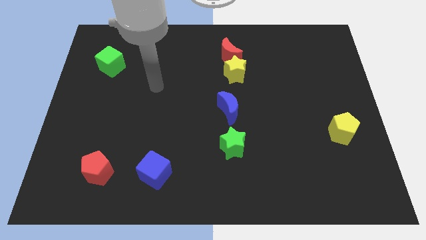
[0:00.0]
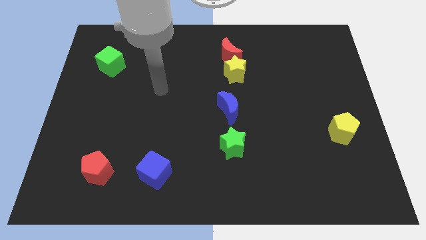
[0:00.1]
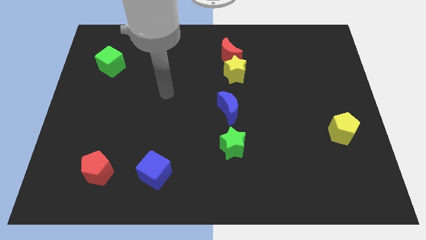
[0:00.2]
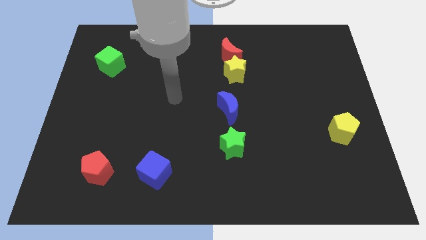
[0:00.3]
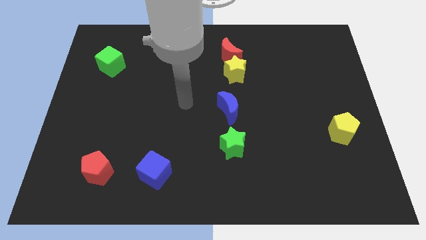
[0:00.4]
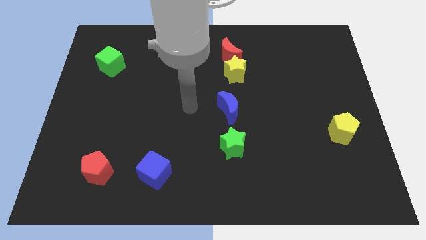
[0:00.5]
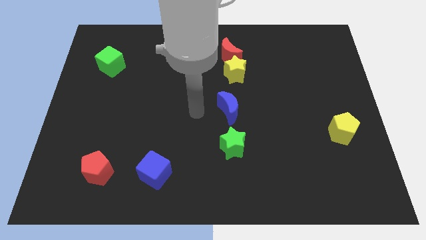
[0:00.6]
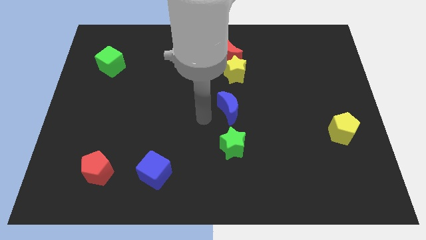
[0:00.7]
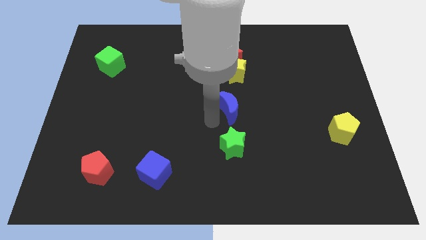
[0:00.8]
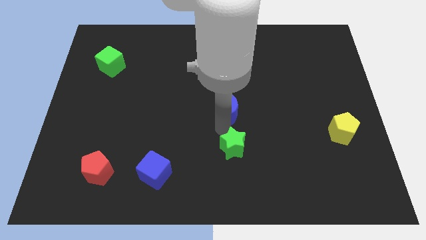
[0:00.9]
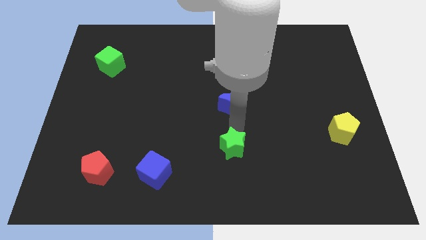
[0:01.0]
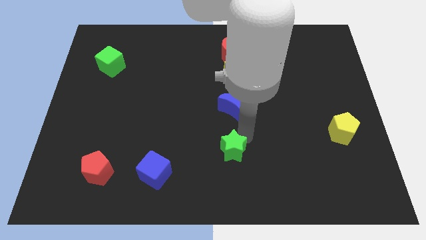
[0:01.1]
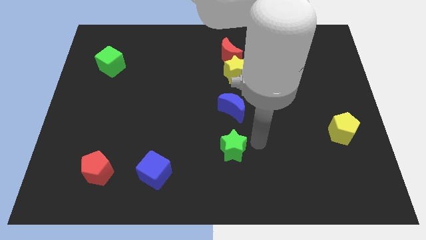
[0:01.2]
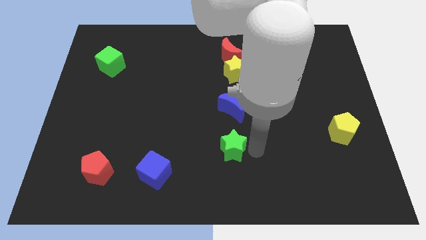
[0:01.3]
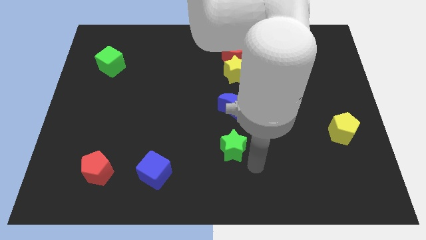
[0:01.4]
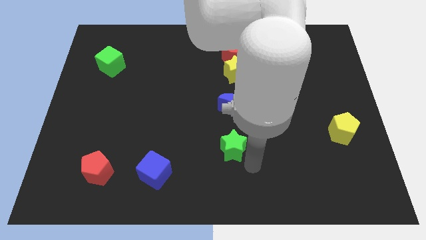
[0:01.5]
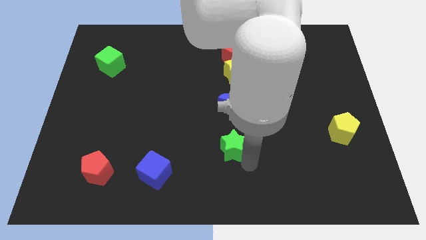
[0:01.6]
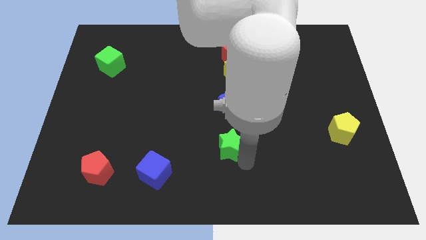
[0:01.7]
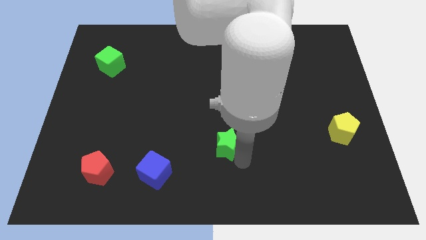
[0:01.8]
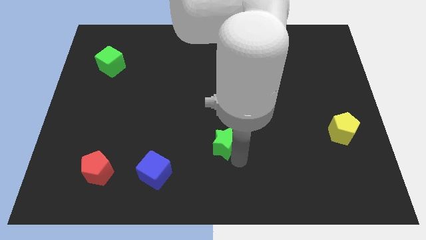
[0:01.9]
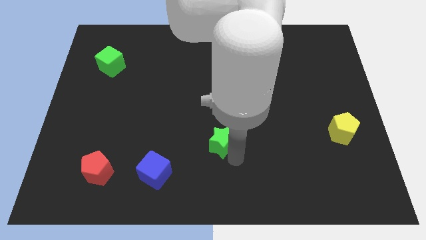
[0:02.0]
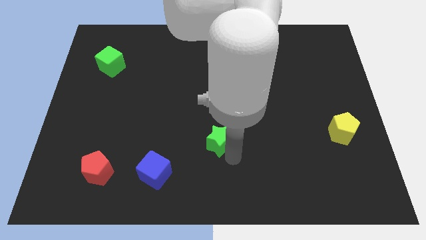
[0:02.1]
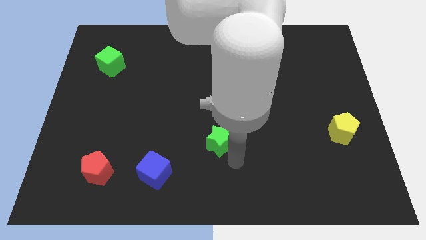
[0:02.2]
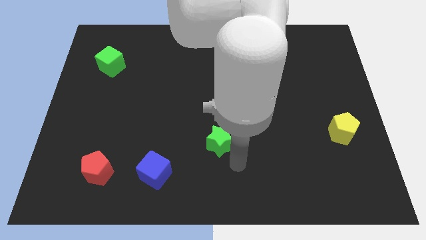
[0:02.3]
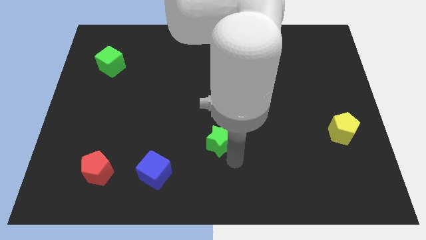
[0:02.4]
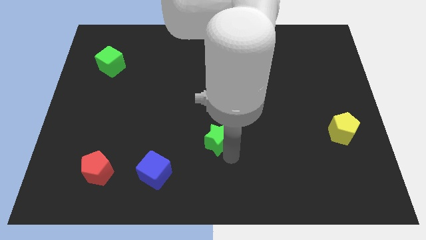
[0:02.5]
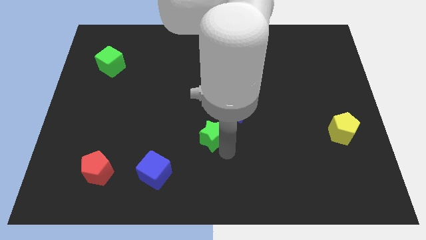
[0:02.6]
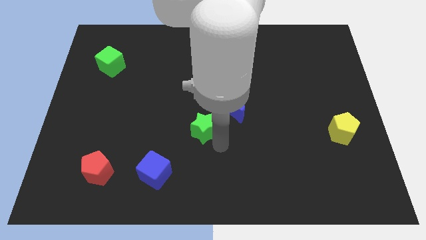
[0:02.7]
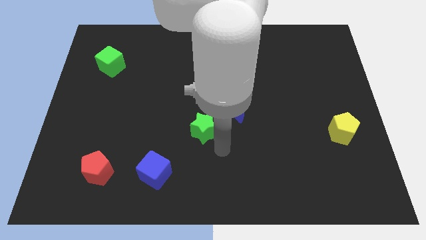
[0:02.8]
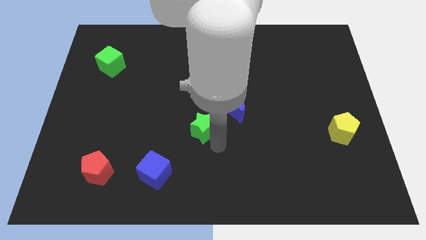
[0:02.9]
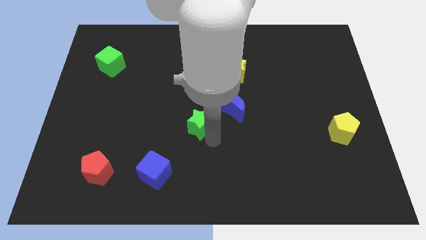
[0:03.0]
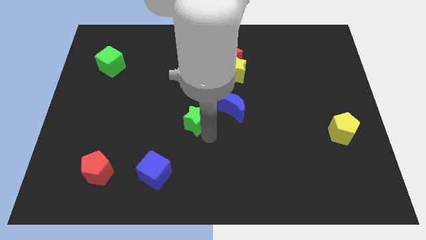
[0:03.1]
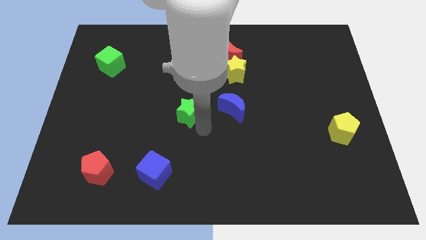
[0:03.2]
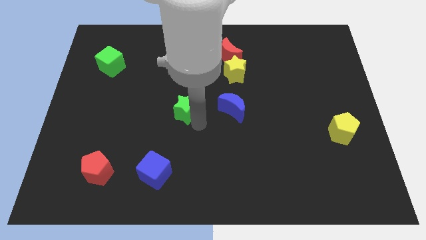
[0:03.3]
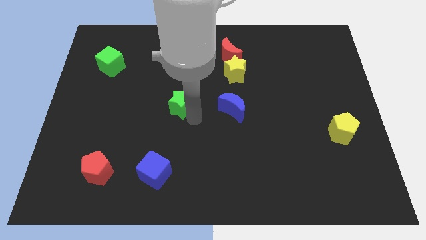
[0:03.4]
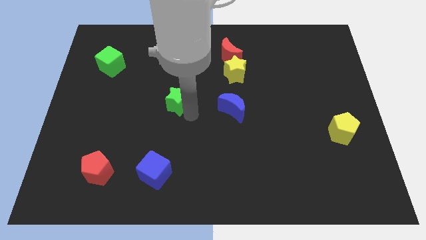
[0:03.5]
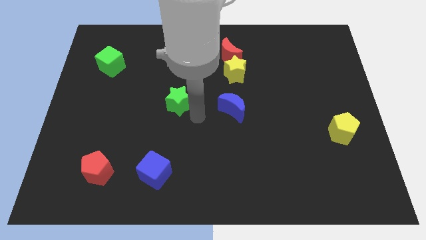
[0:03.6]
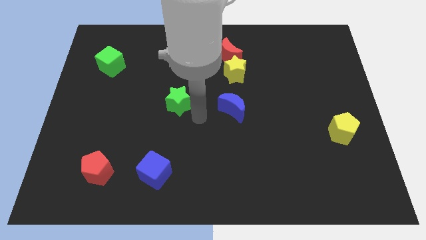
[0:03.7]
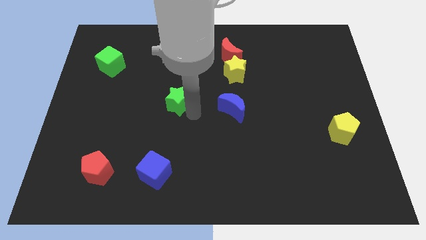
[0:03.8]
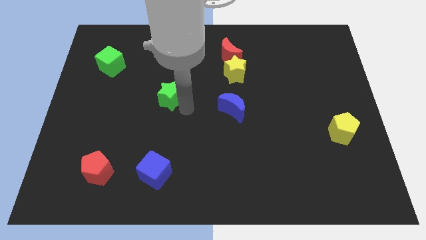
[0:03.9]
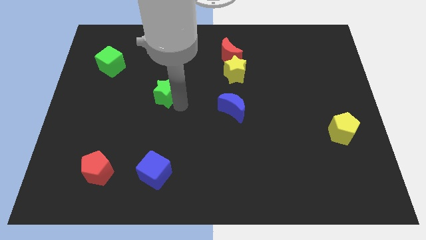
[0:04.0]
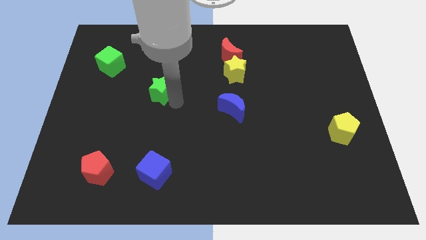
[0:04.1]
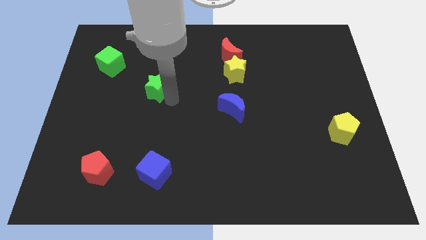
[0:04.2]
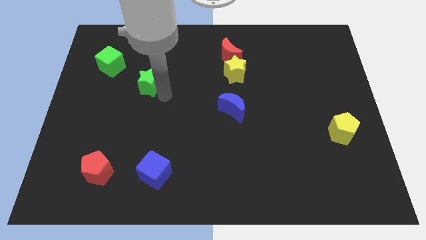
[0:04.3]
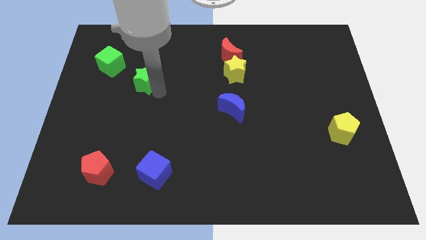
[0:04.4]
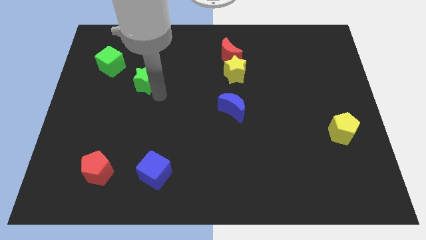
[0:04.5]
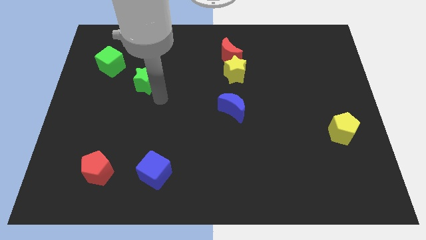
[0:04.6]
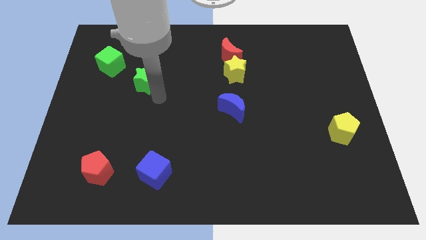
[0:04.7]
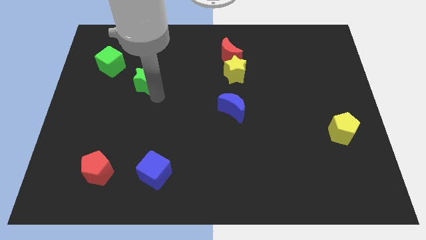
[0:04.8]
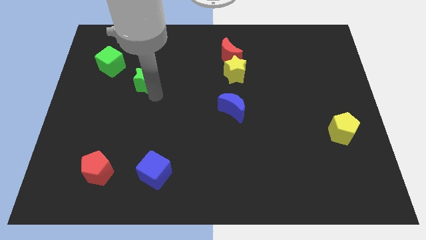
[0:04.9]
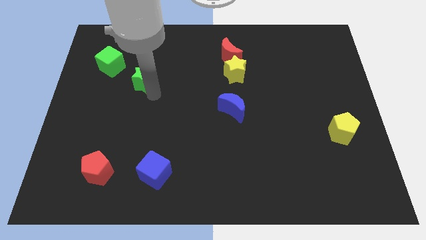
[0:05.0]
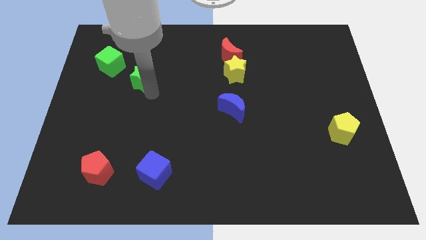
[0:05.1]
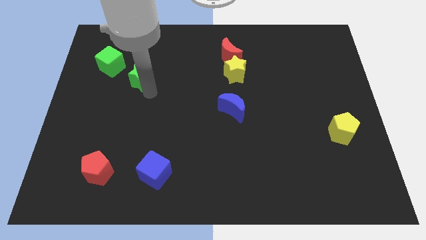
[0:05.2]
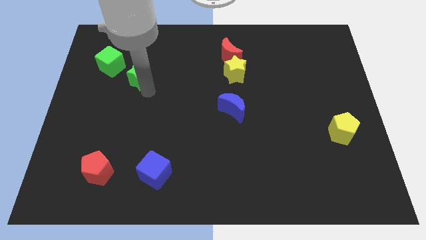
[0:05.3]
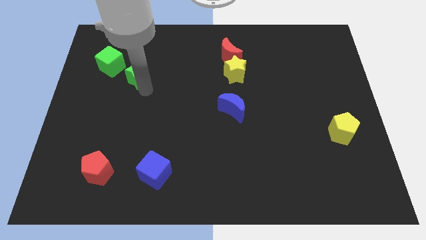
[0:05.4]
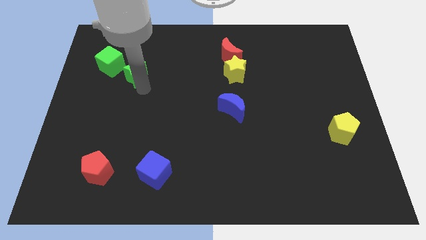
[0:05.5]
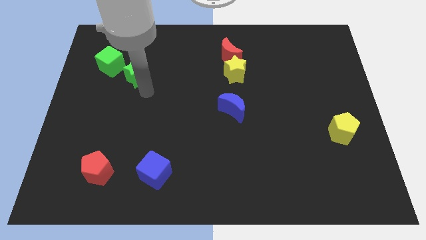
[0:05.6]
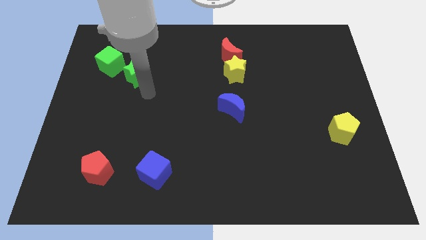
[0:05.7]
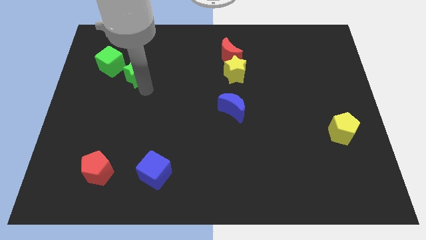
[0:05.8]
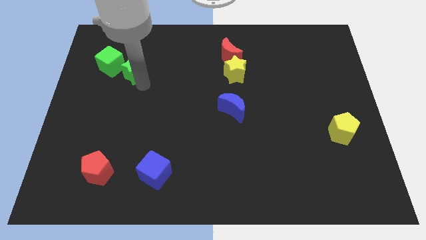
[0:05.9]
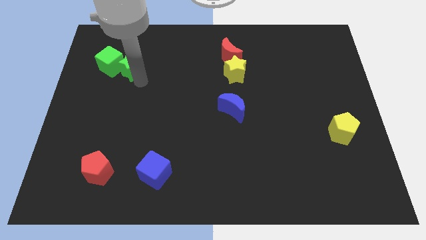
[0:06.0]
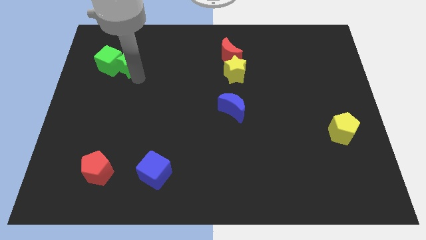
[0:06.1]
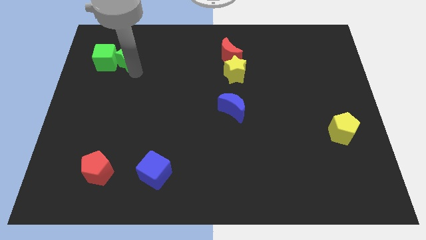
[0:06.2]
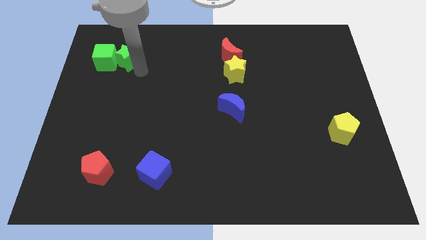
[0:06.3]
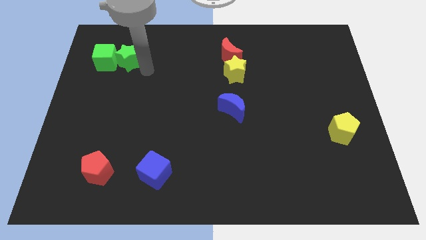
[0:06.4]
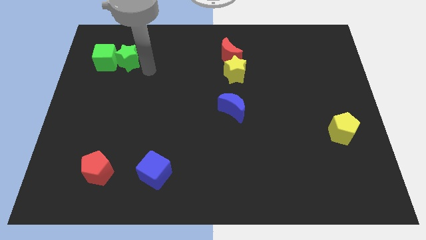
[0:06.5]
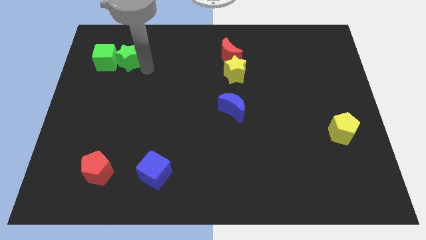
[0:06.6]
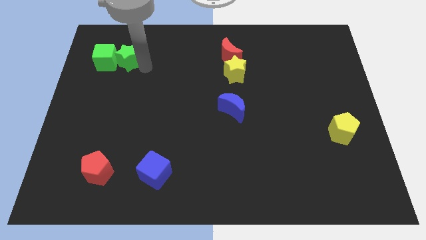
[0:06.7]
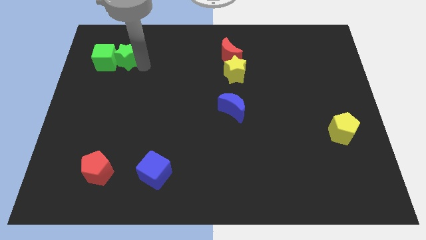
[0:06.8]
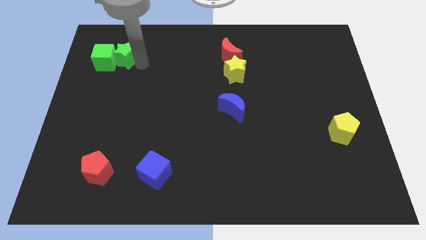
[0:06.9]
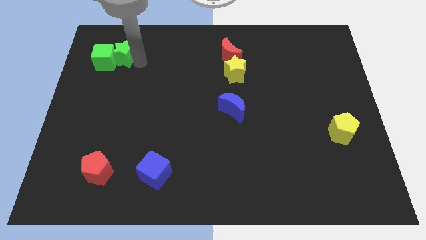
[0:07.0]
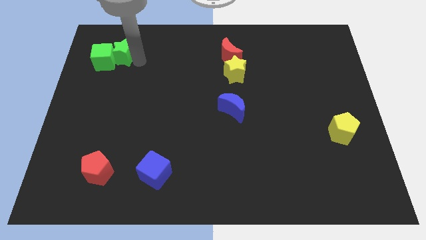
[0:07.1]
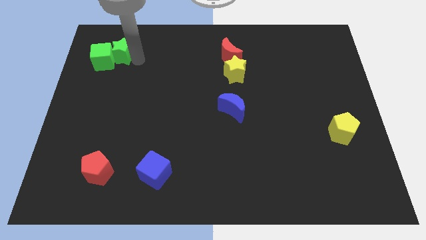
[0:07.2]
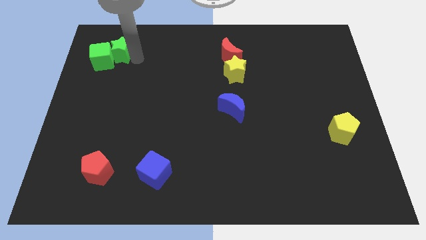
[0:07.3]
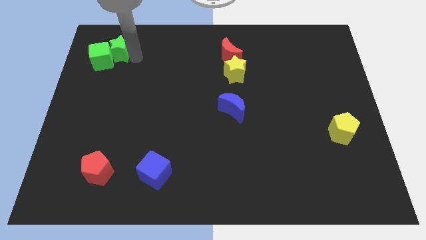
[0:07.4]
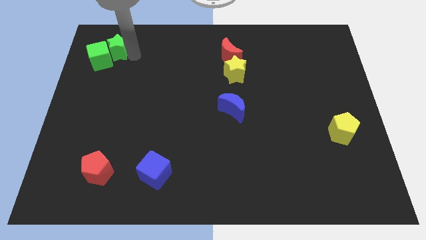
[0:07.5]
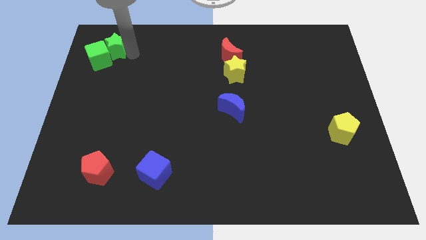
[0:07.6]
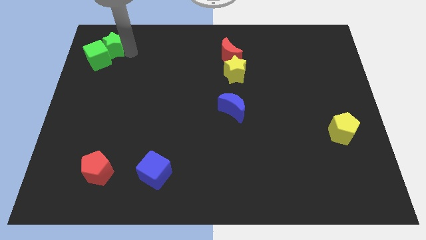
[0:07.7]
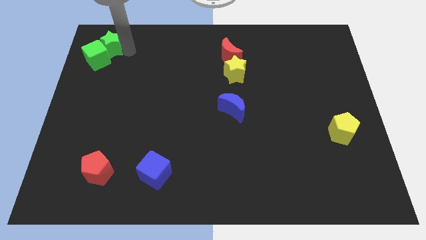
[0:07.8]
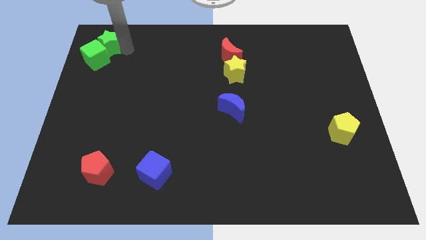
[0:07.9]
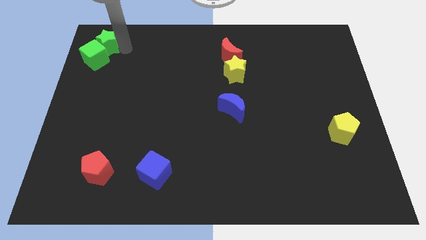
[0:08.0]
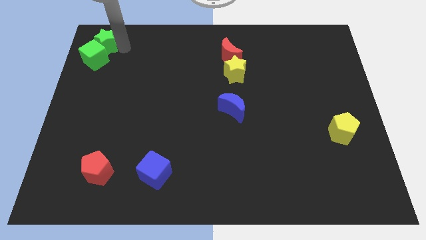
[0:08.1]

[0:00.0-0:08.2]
push the green star to the top left
